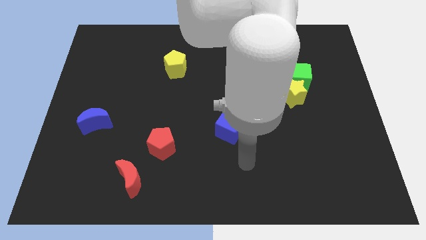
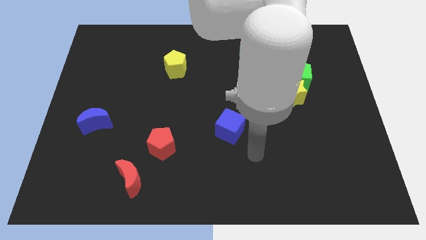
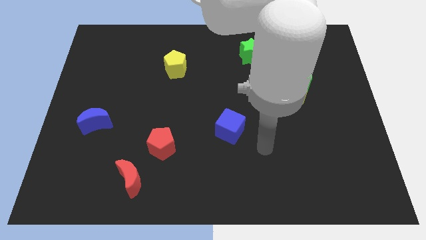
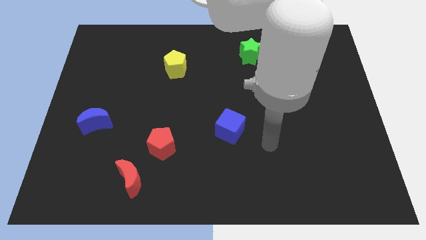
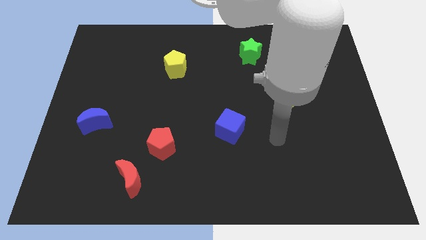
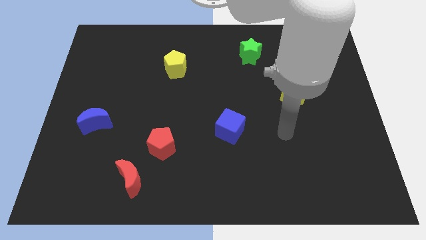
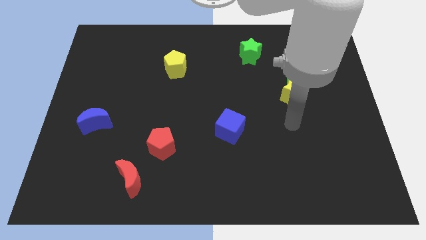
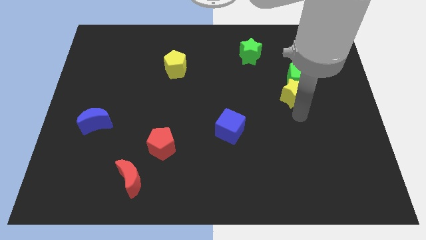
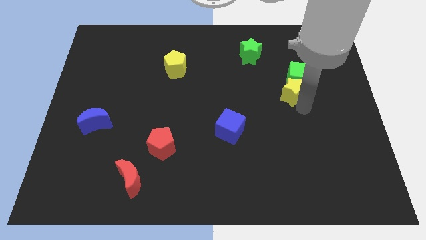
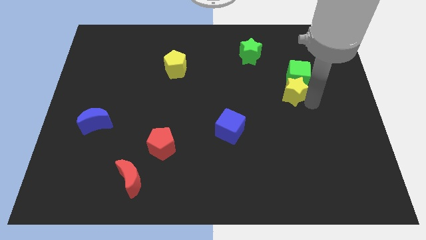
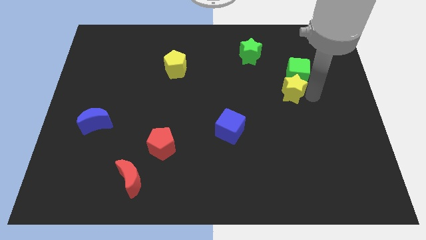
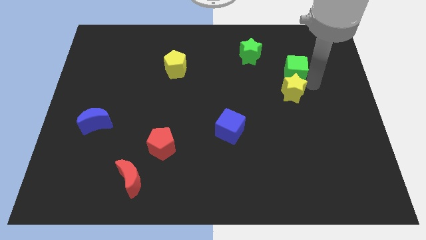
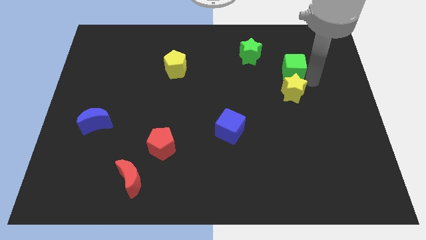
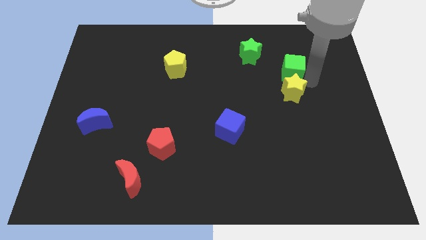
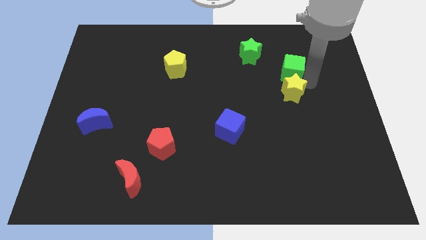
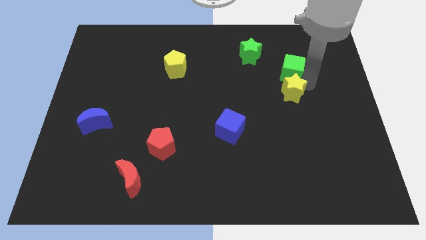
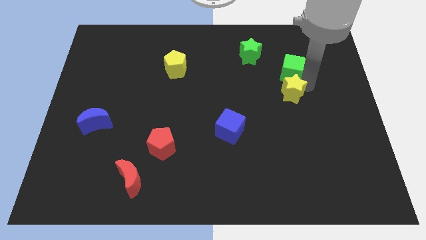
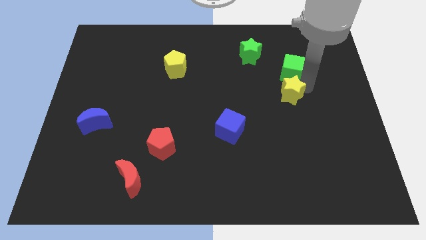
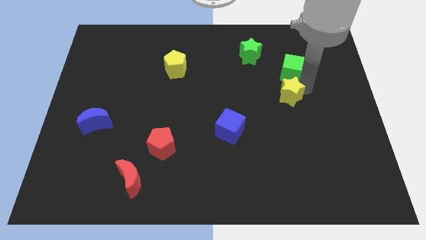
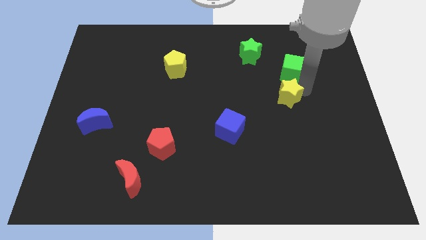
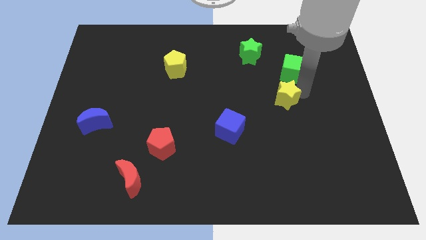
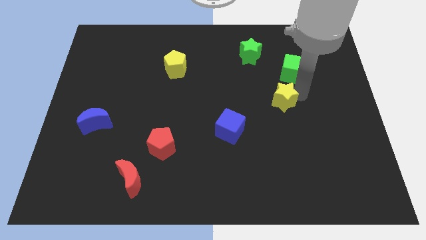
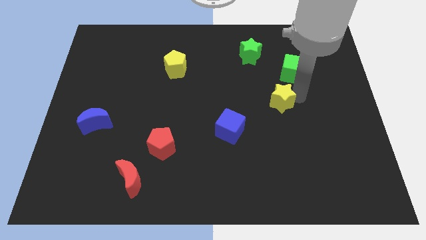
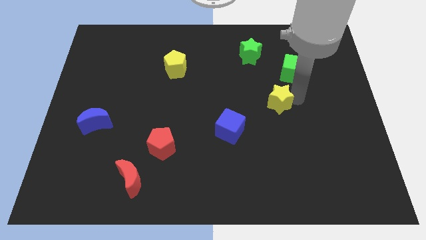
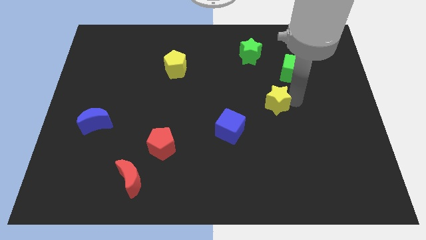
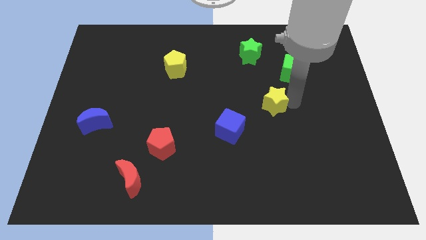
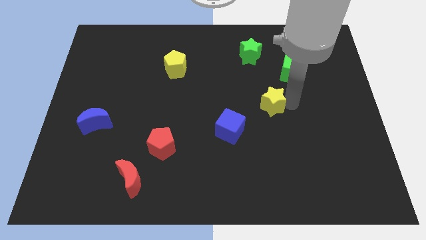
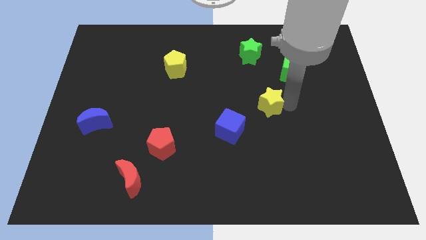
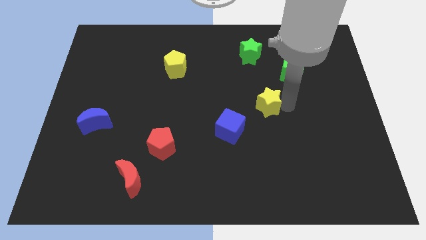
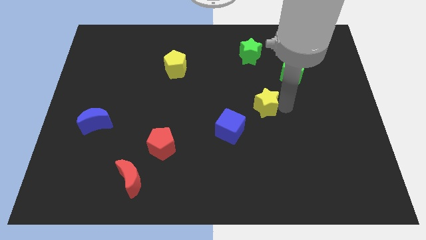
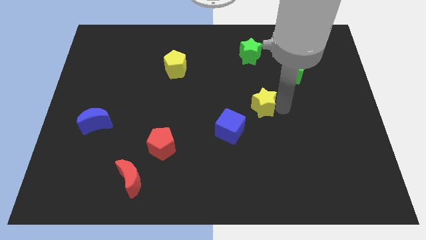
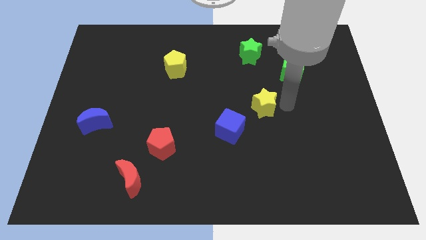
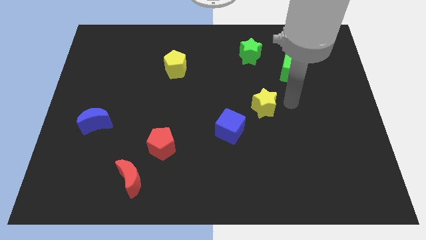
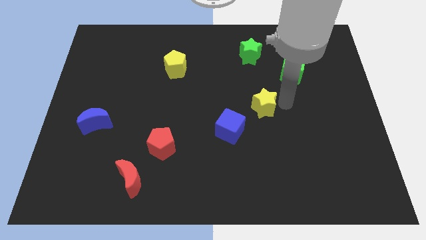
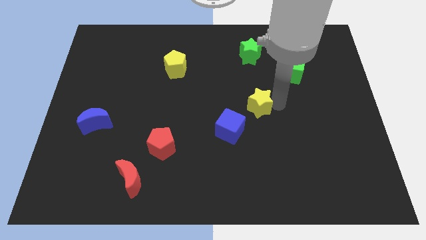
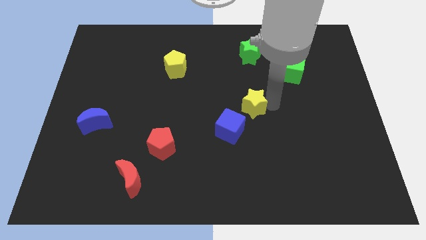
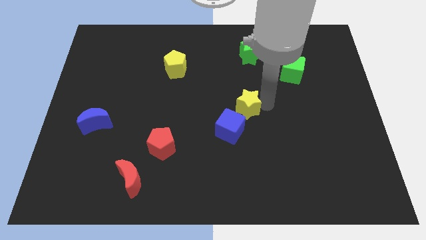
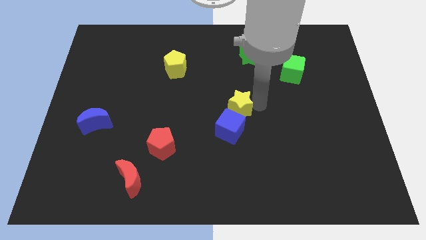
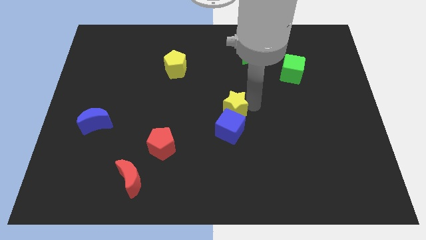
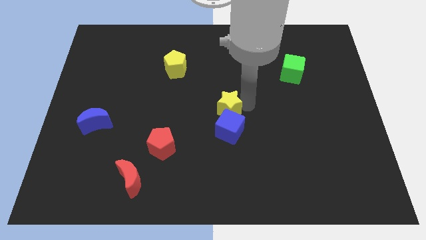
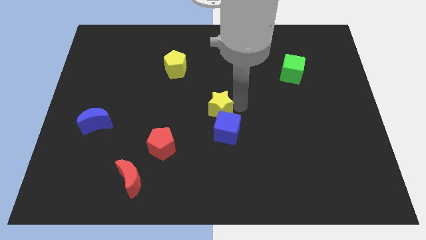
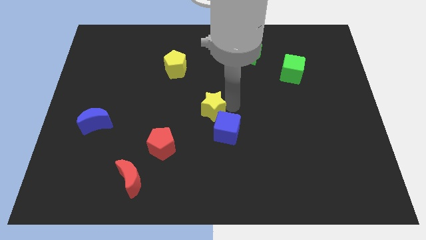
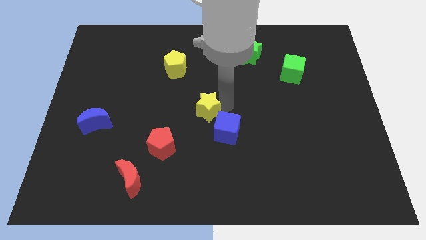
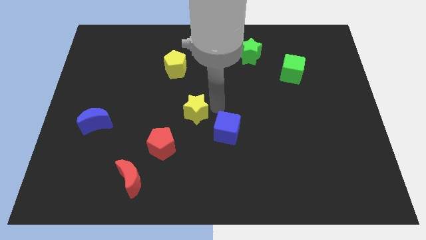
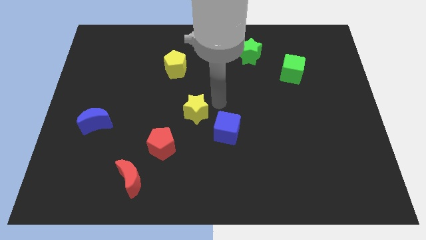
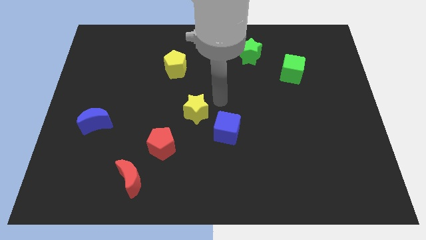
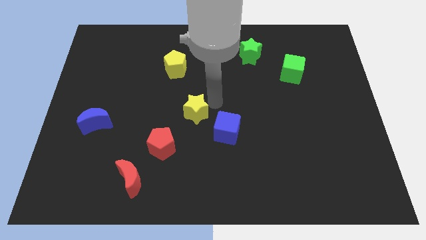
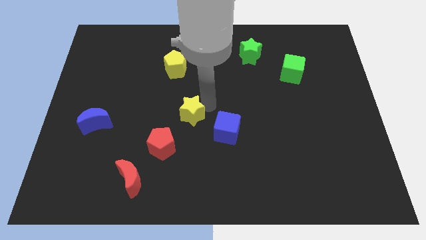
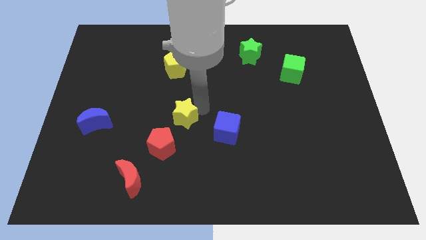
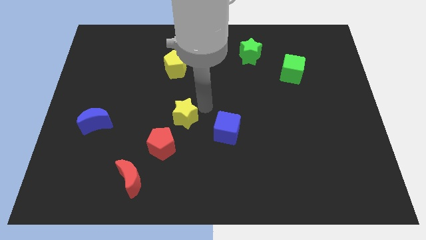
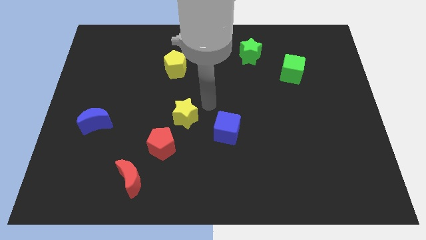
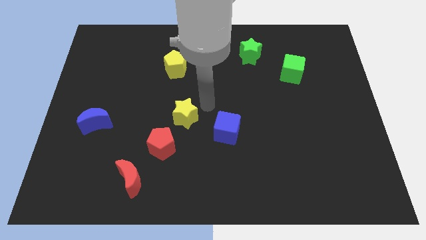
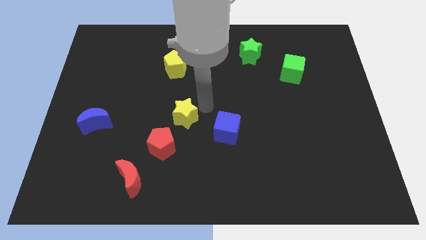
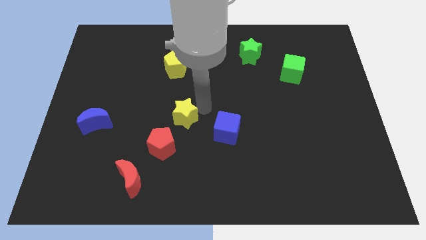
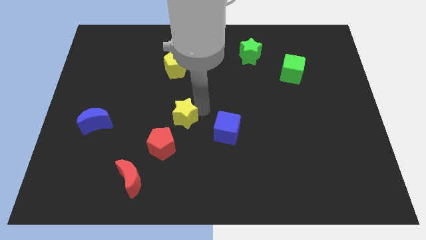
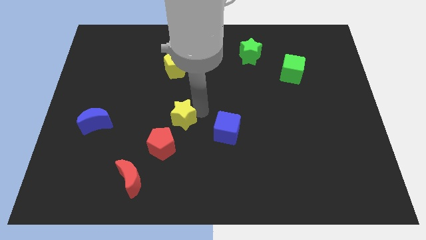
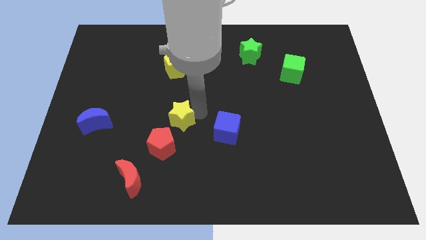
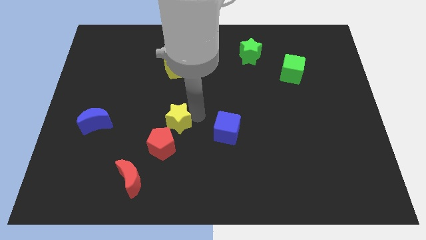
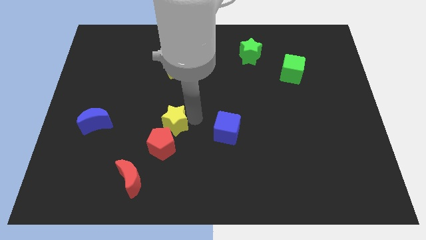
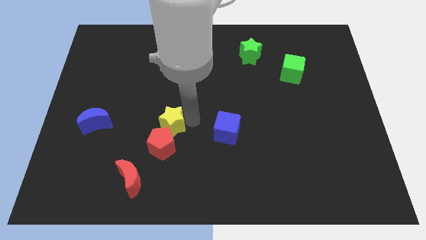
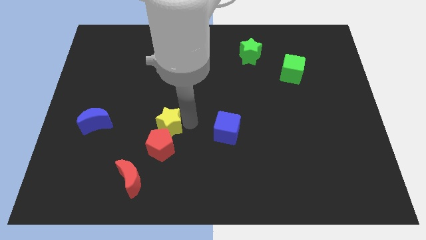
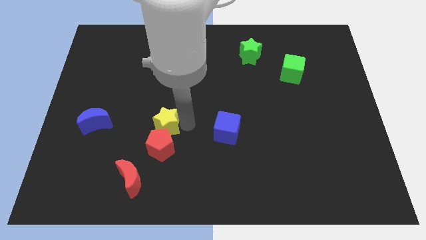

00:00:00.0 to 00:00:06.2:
move the yellow star to the top left side of the red pentagon
